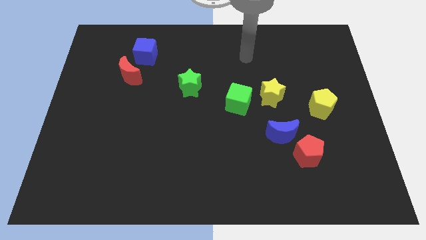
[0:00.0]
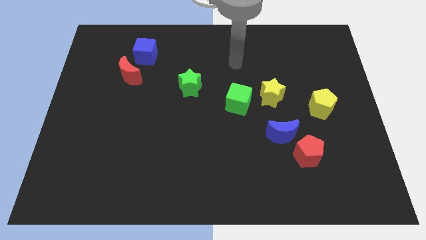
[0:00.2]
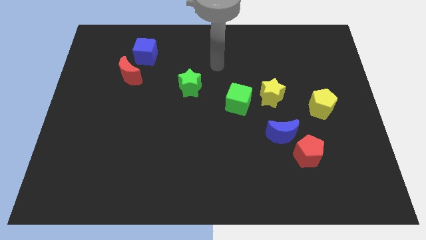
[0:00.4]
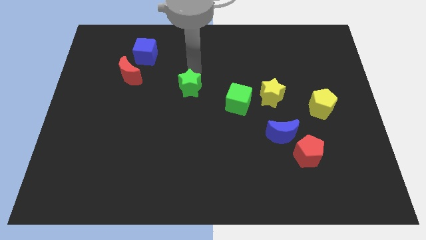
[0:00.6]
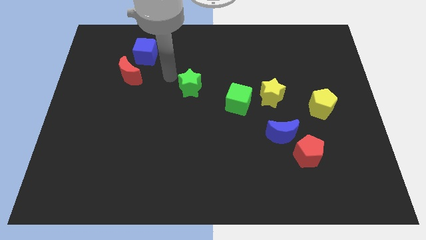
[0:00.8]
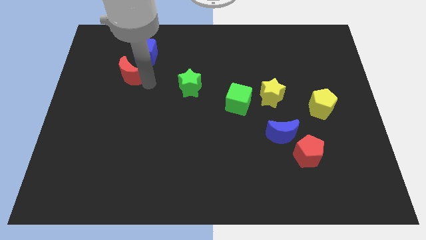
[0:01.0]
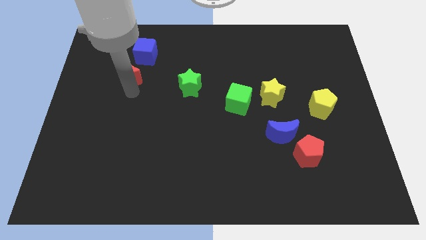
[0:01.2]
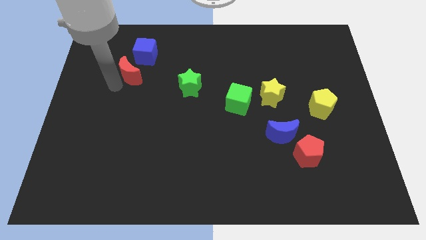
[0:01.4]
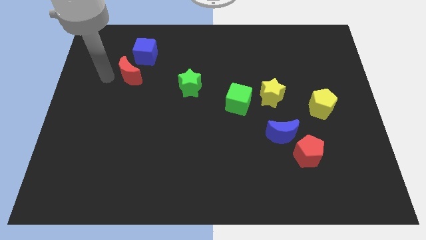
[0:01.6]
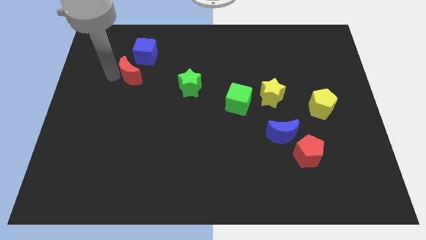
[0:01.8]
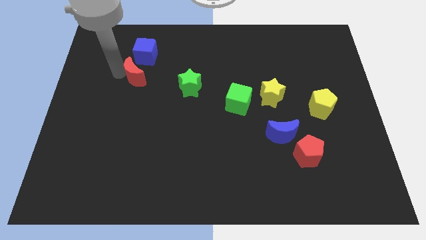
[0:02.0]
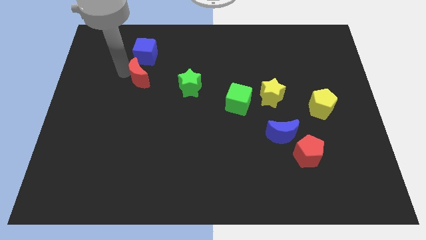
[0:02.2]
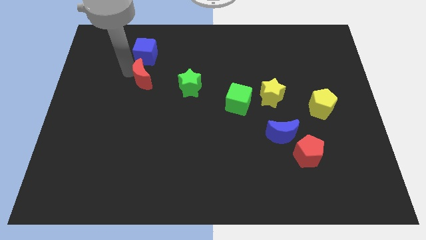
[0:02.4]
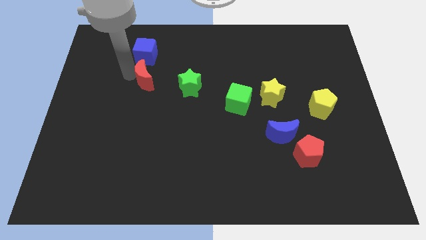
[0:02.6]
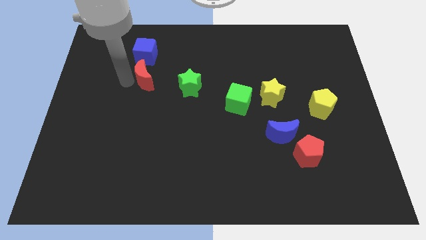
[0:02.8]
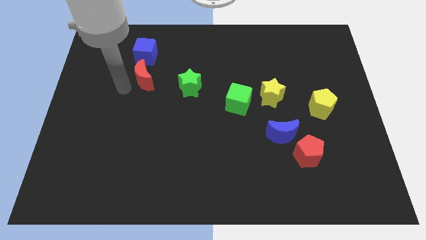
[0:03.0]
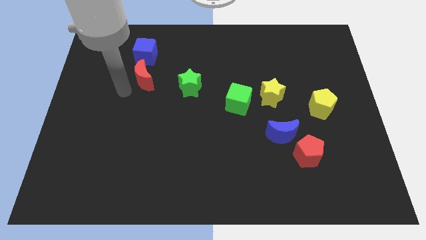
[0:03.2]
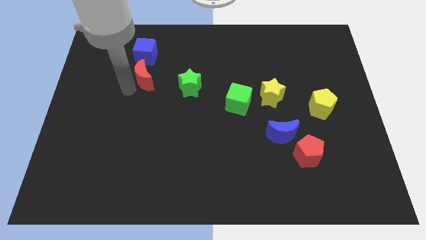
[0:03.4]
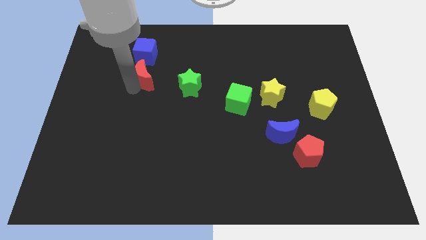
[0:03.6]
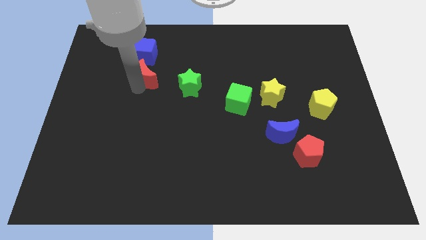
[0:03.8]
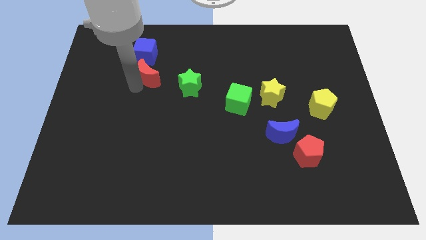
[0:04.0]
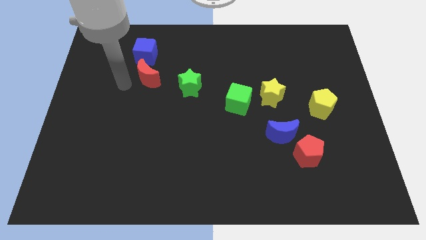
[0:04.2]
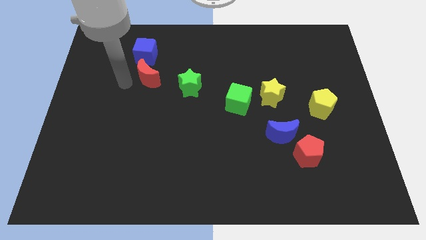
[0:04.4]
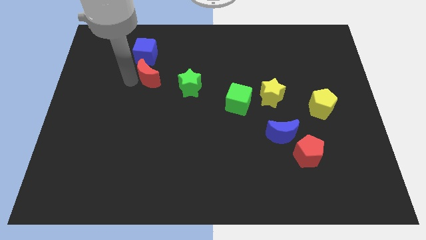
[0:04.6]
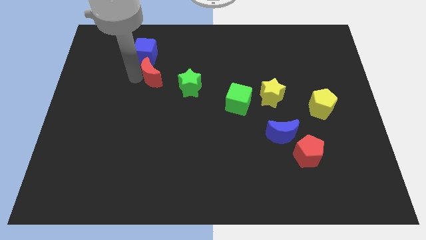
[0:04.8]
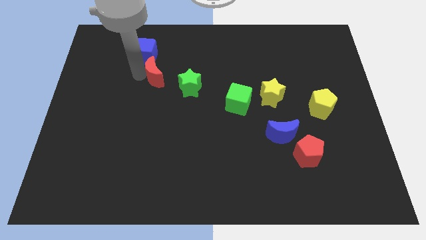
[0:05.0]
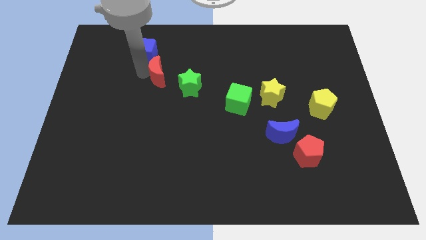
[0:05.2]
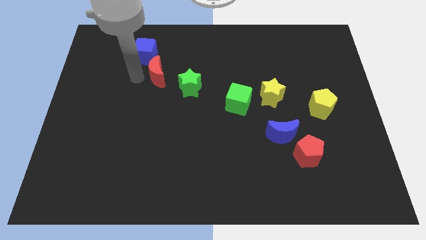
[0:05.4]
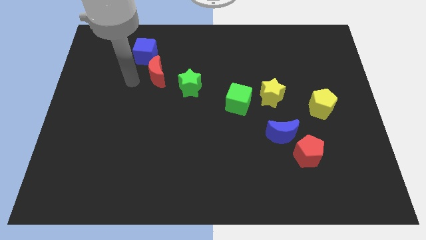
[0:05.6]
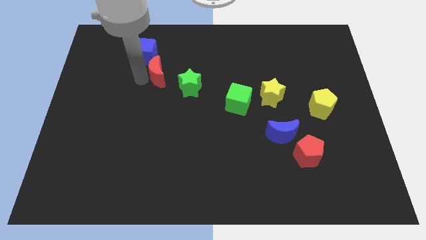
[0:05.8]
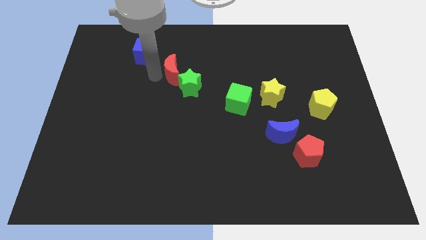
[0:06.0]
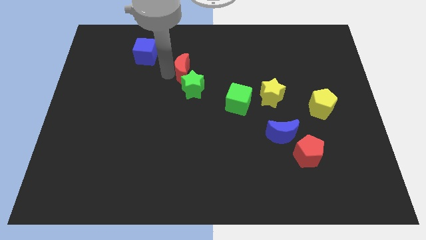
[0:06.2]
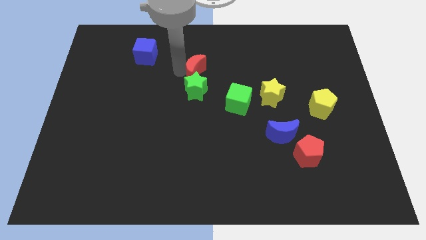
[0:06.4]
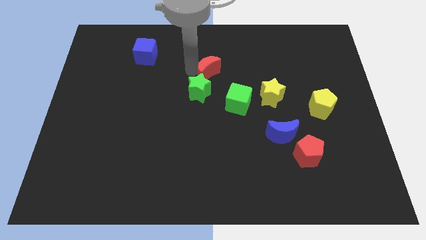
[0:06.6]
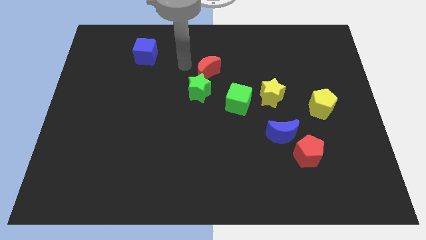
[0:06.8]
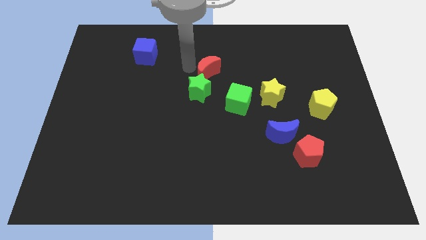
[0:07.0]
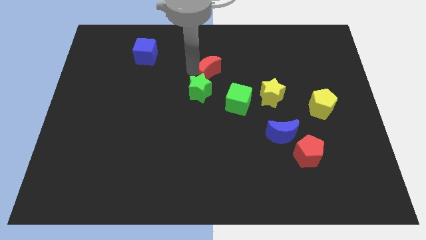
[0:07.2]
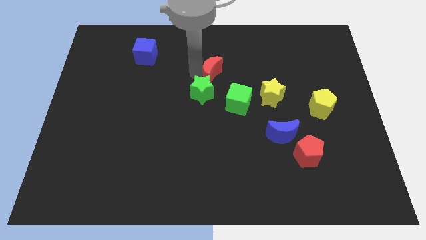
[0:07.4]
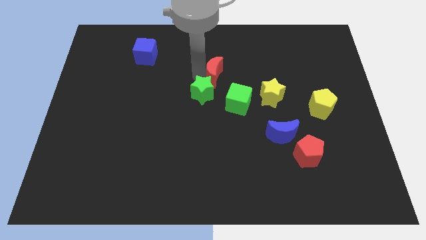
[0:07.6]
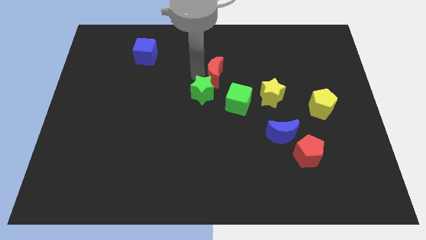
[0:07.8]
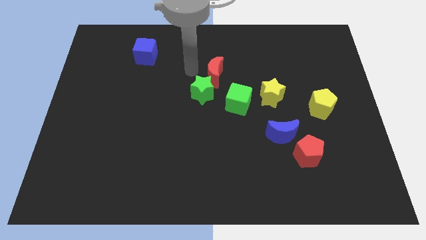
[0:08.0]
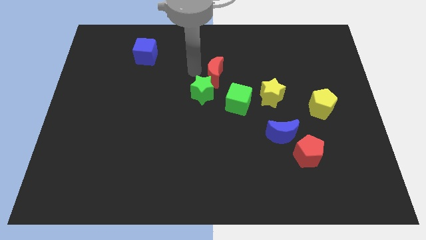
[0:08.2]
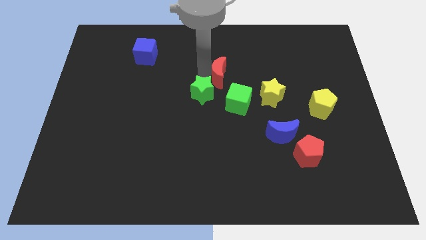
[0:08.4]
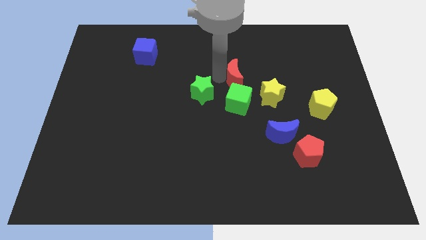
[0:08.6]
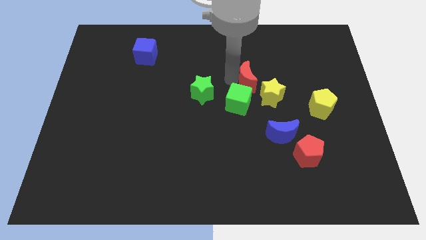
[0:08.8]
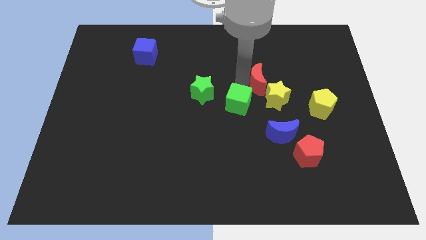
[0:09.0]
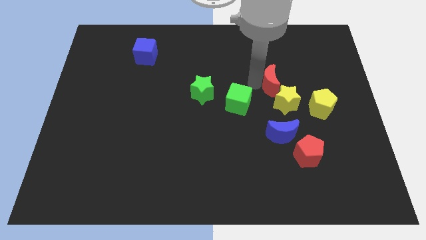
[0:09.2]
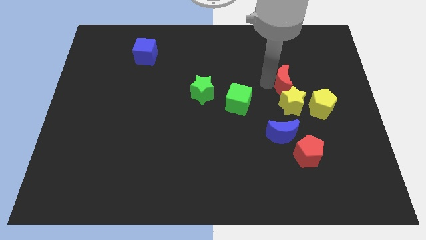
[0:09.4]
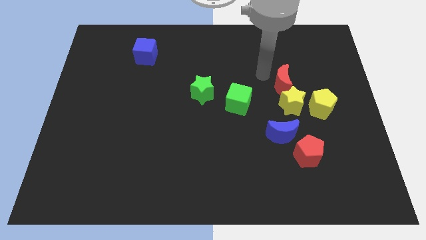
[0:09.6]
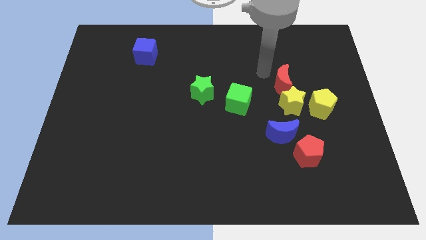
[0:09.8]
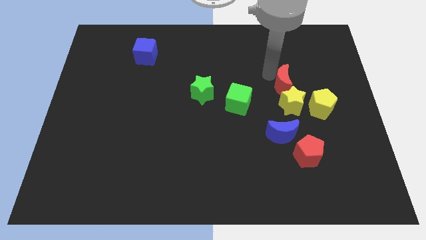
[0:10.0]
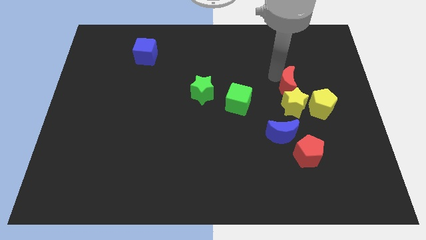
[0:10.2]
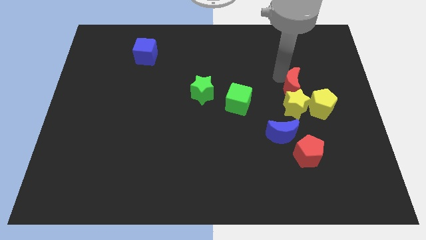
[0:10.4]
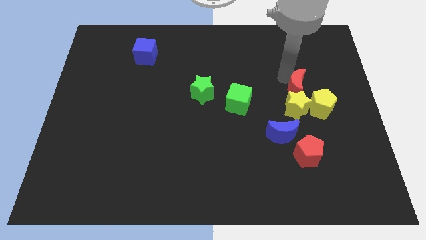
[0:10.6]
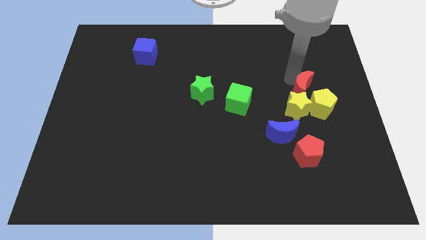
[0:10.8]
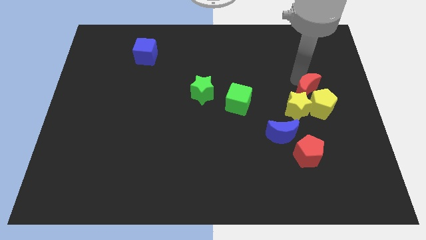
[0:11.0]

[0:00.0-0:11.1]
move the red moon next to the yellow pentagon
